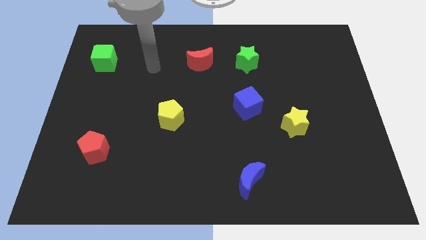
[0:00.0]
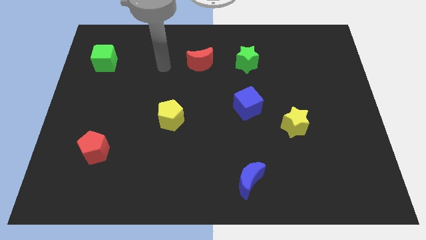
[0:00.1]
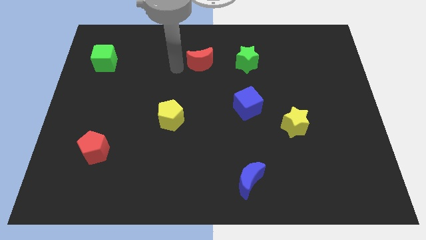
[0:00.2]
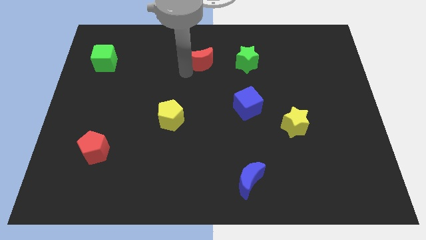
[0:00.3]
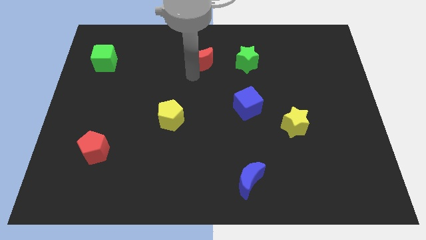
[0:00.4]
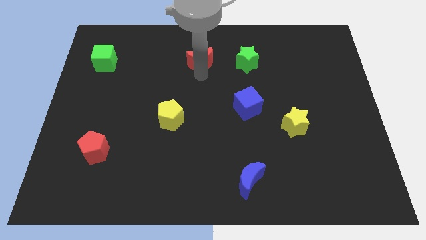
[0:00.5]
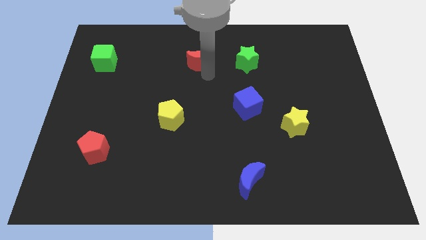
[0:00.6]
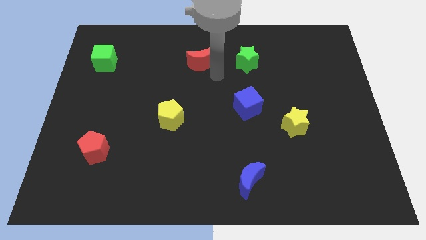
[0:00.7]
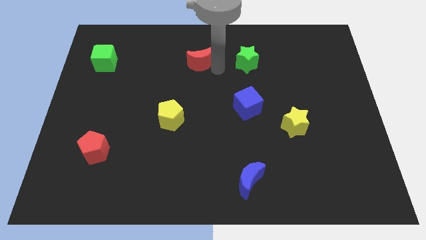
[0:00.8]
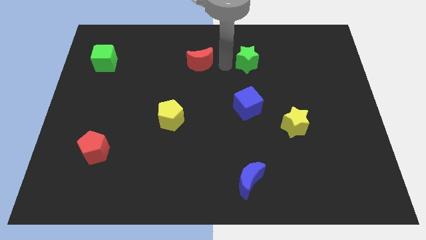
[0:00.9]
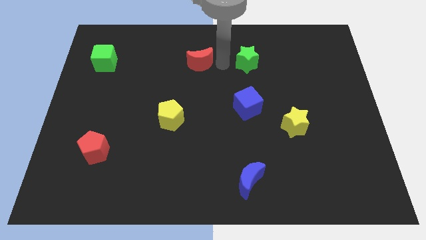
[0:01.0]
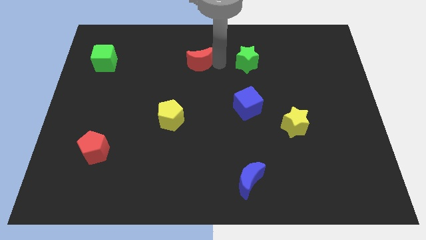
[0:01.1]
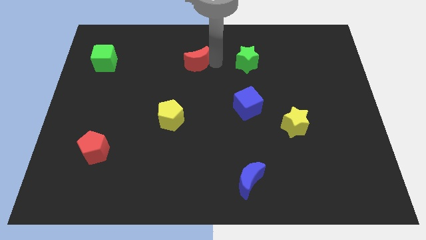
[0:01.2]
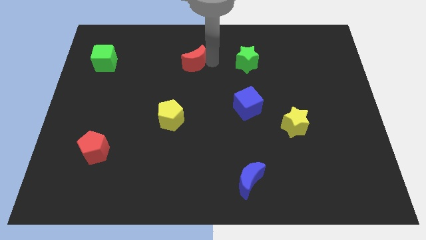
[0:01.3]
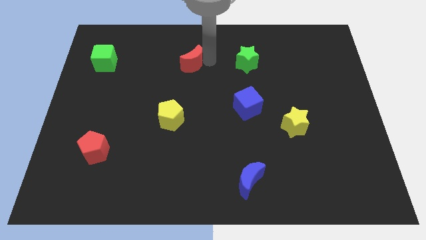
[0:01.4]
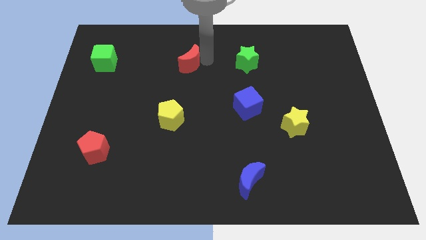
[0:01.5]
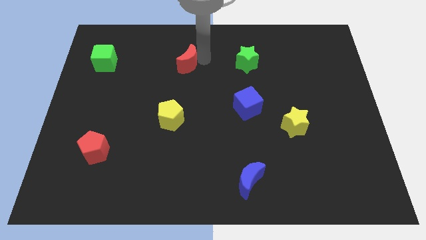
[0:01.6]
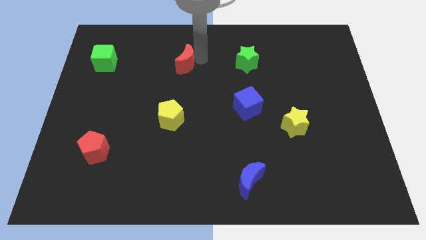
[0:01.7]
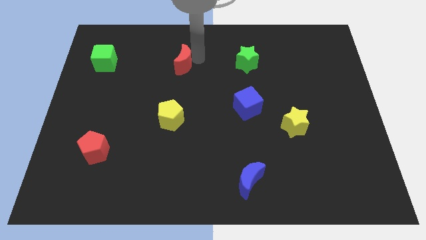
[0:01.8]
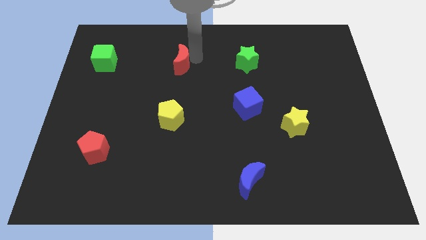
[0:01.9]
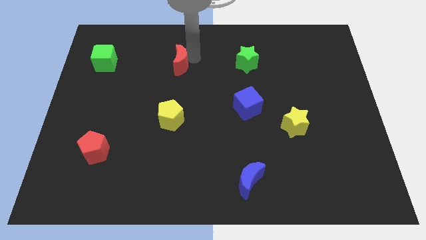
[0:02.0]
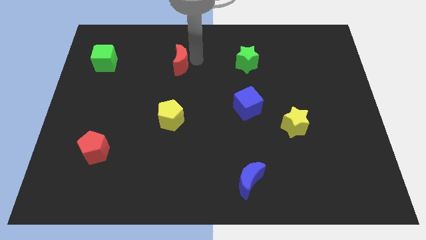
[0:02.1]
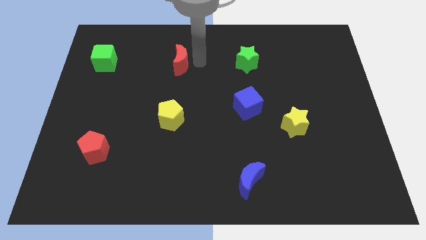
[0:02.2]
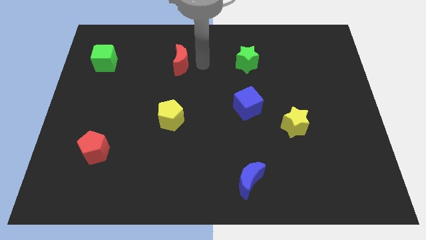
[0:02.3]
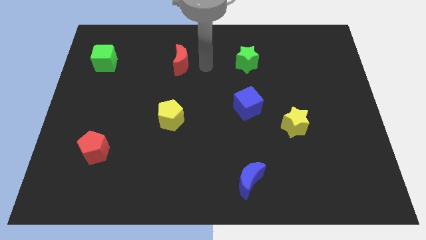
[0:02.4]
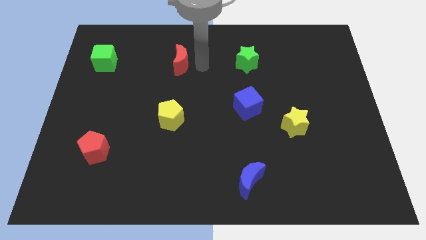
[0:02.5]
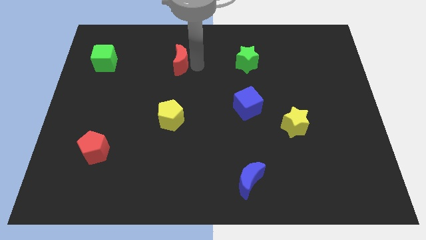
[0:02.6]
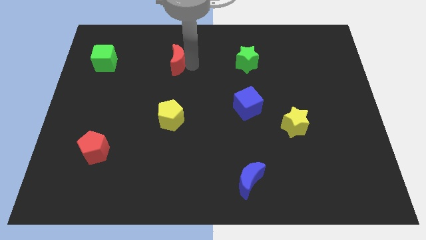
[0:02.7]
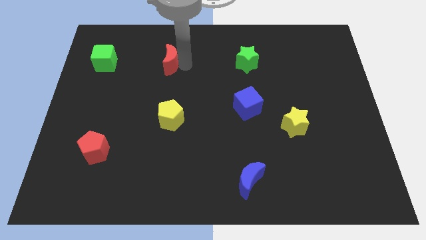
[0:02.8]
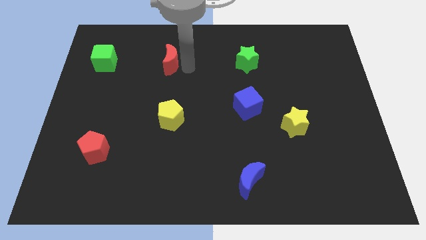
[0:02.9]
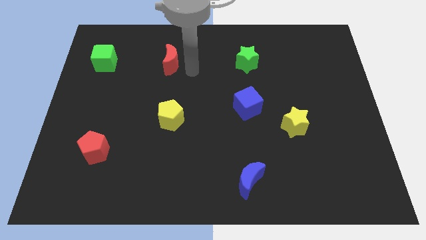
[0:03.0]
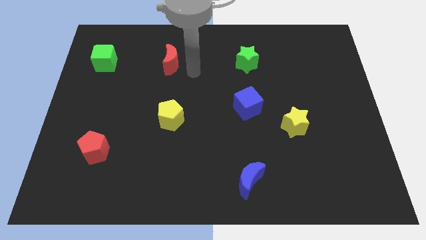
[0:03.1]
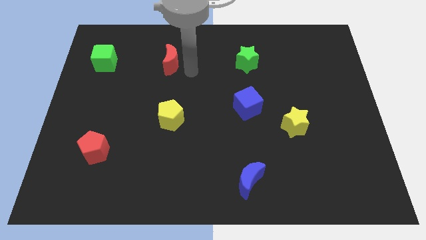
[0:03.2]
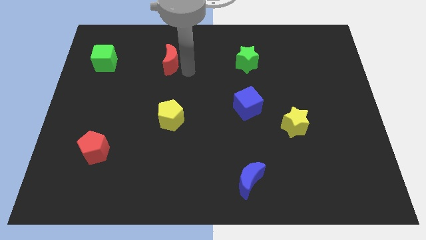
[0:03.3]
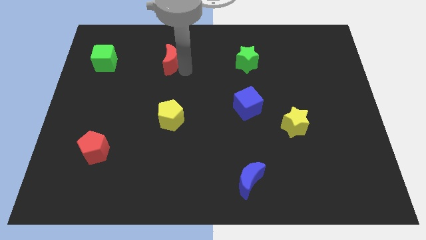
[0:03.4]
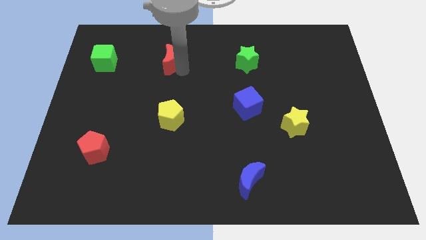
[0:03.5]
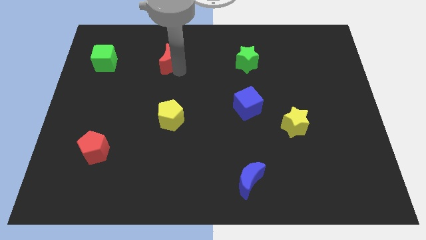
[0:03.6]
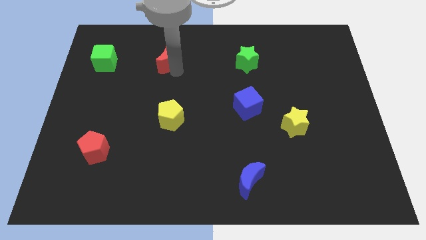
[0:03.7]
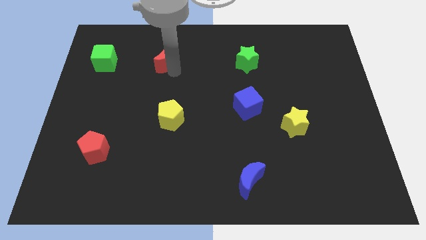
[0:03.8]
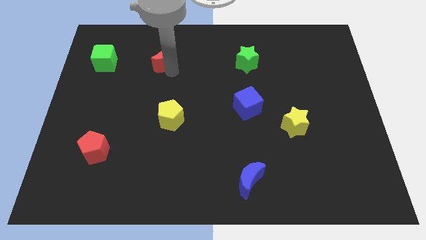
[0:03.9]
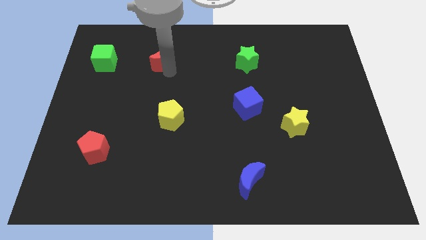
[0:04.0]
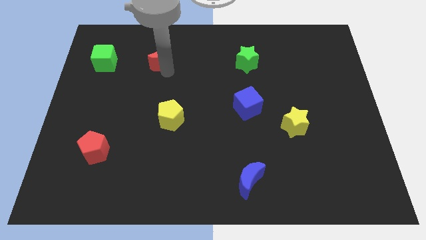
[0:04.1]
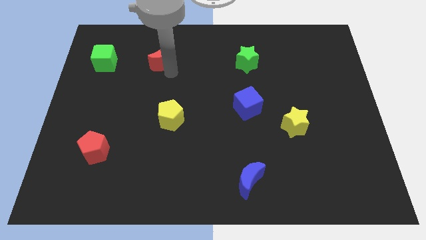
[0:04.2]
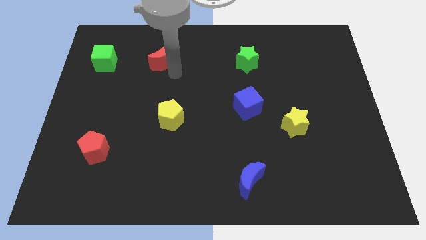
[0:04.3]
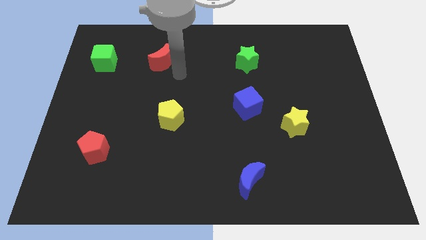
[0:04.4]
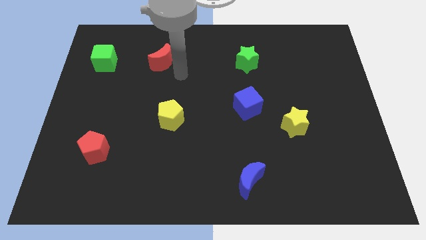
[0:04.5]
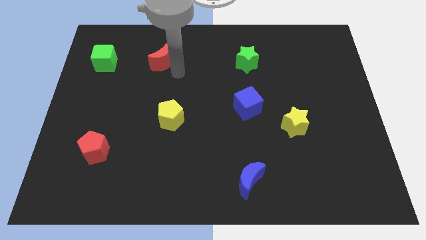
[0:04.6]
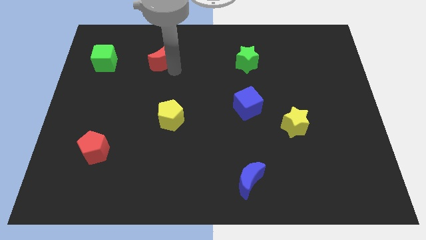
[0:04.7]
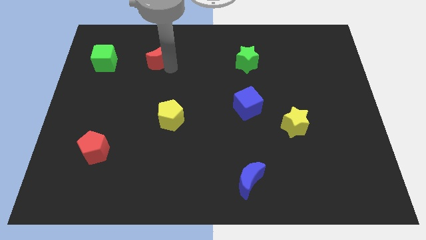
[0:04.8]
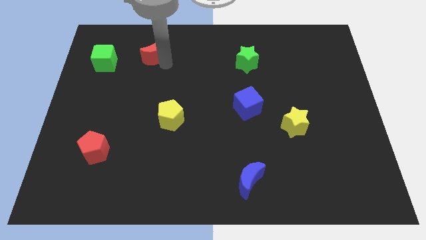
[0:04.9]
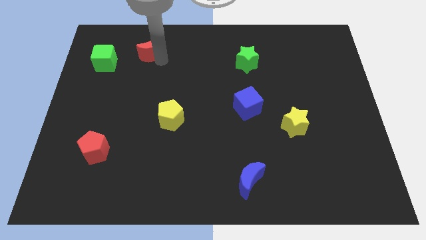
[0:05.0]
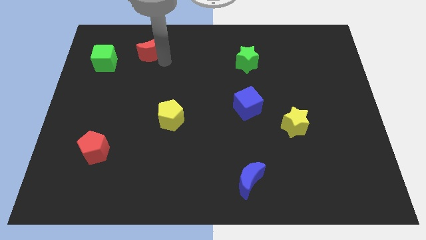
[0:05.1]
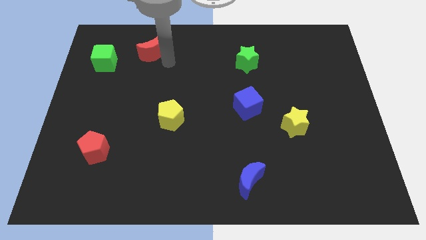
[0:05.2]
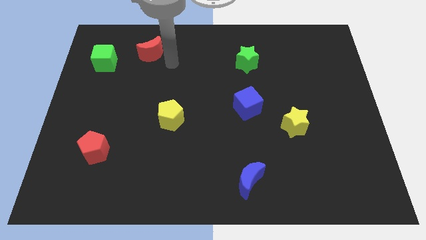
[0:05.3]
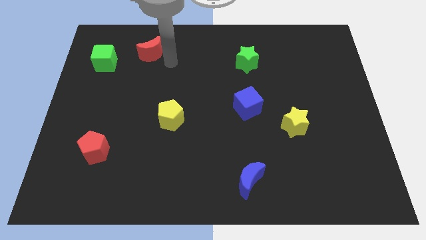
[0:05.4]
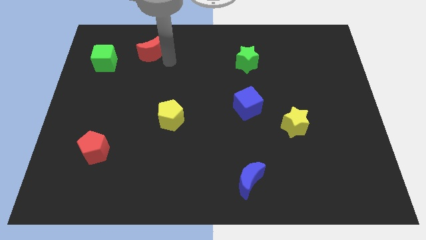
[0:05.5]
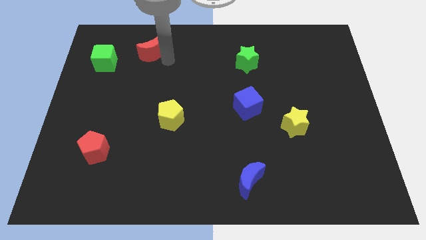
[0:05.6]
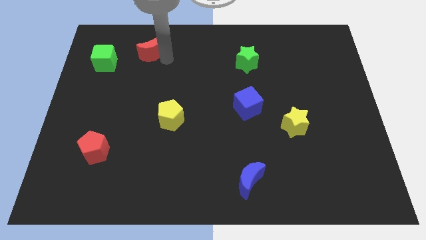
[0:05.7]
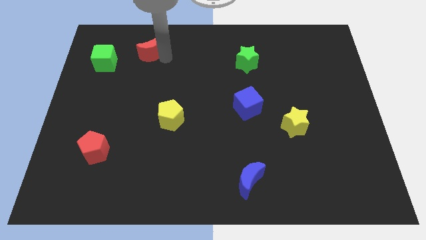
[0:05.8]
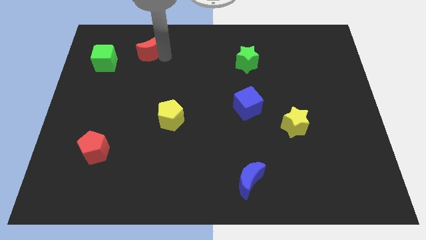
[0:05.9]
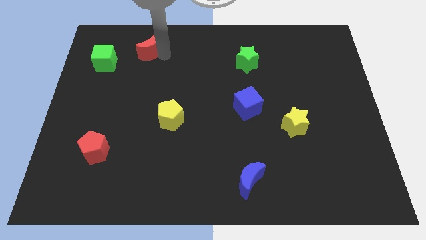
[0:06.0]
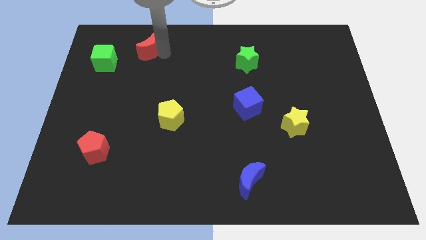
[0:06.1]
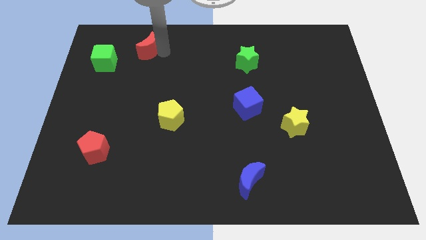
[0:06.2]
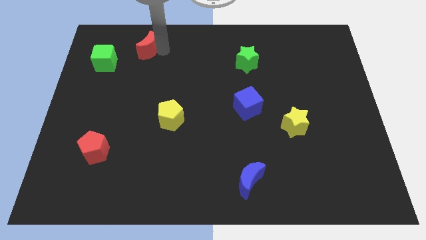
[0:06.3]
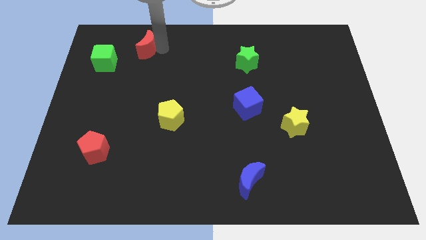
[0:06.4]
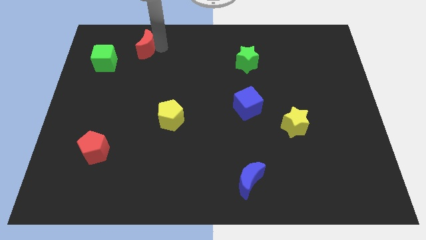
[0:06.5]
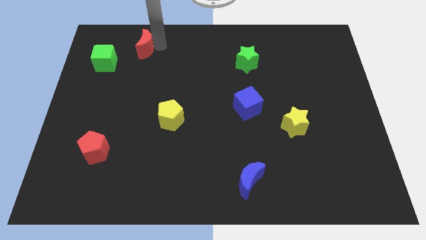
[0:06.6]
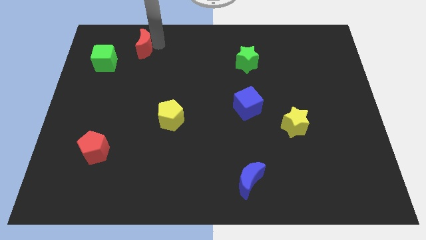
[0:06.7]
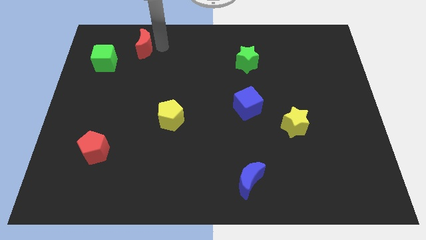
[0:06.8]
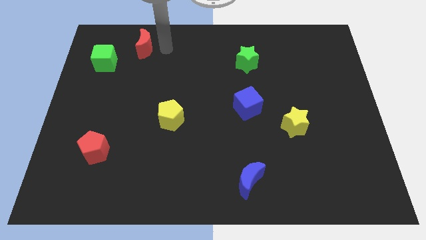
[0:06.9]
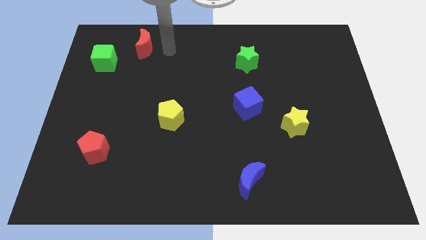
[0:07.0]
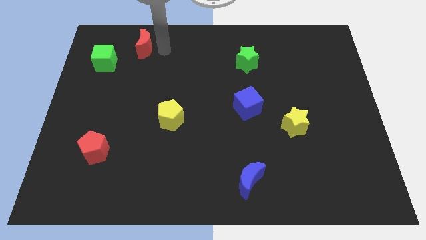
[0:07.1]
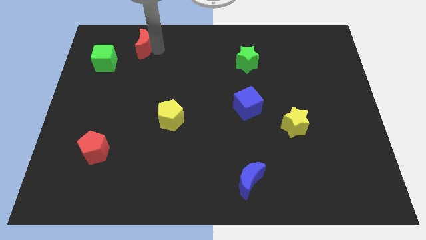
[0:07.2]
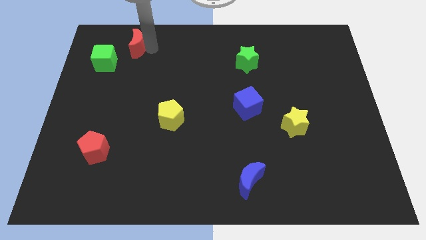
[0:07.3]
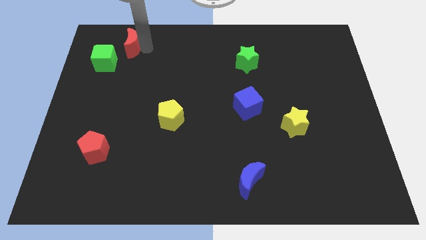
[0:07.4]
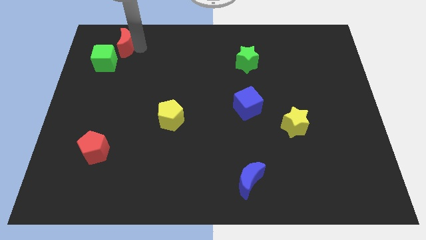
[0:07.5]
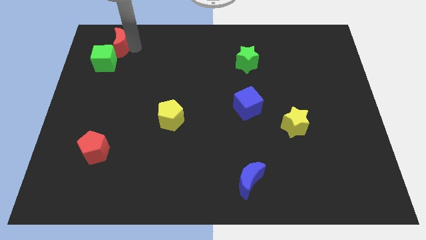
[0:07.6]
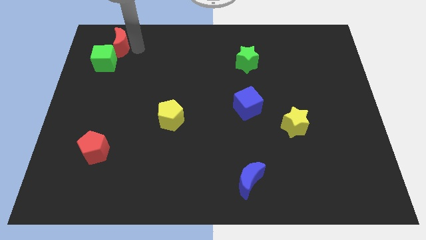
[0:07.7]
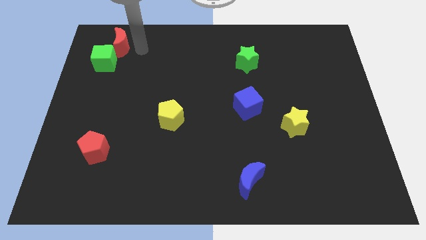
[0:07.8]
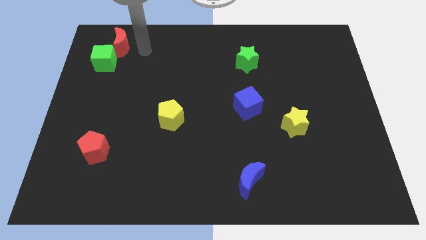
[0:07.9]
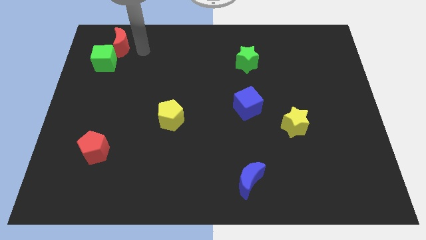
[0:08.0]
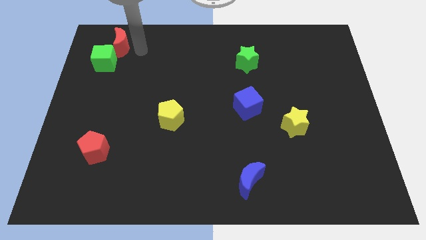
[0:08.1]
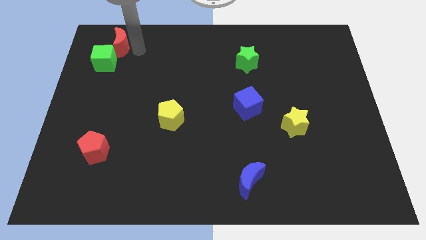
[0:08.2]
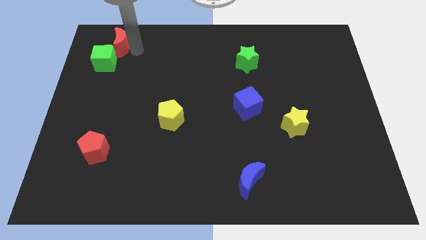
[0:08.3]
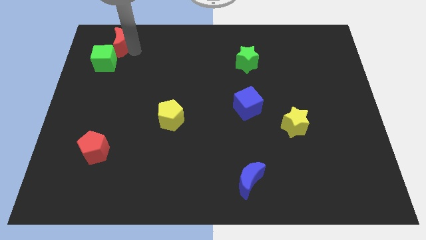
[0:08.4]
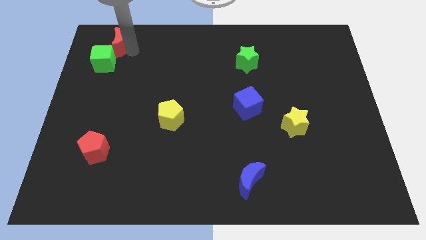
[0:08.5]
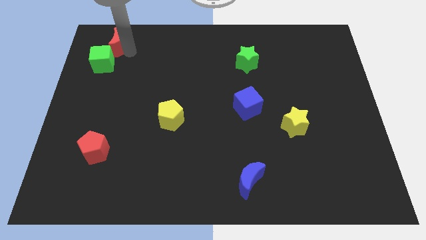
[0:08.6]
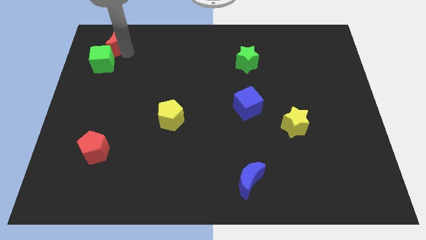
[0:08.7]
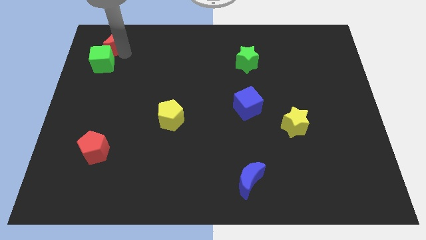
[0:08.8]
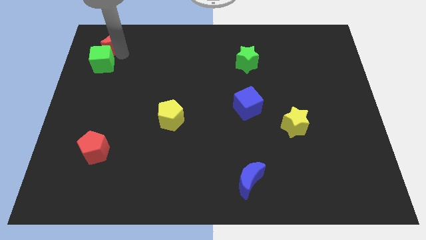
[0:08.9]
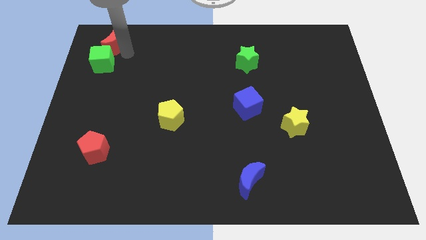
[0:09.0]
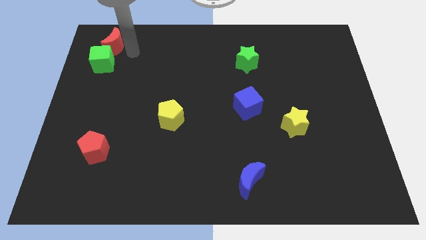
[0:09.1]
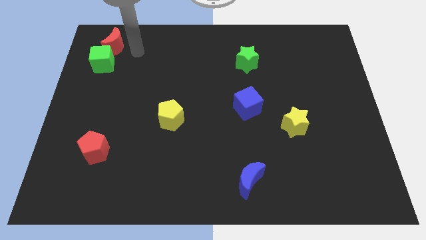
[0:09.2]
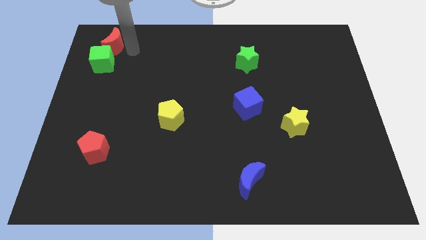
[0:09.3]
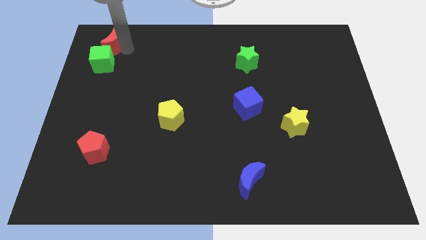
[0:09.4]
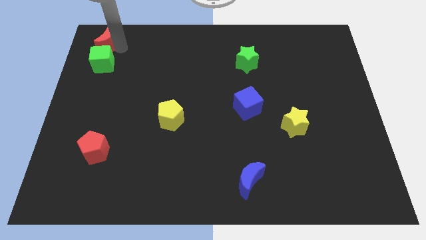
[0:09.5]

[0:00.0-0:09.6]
put the red moon to the top left
